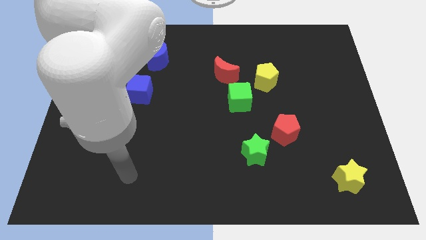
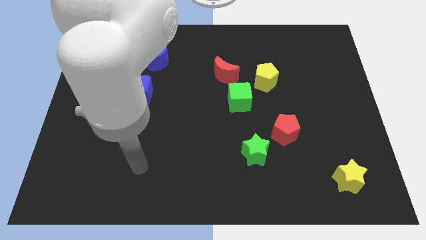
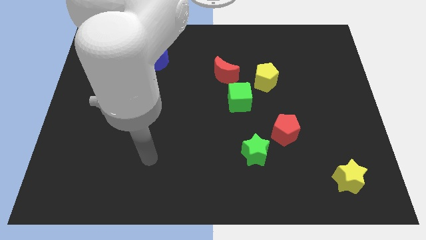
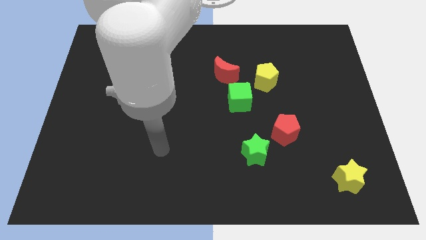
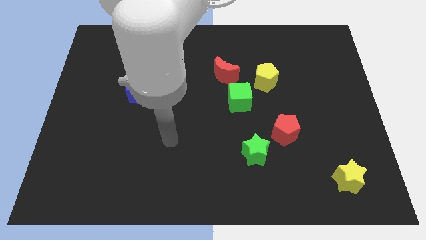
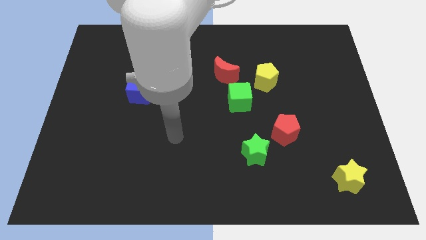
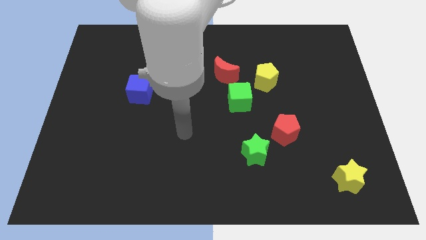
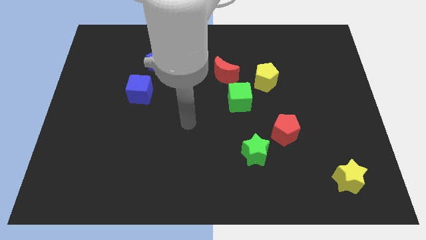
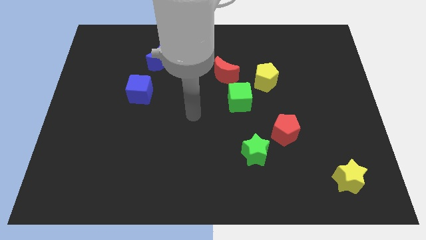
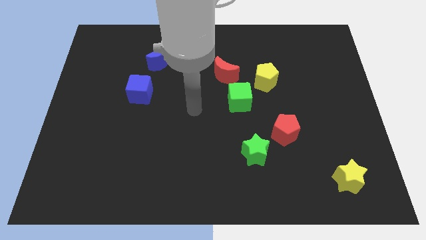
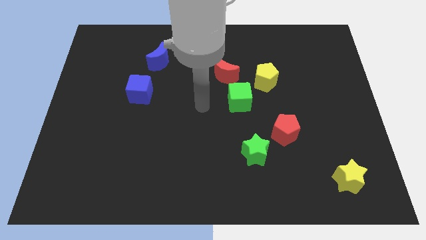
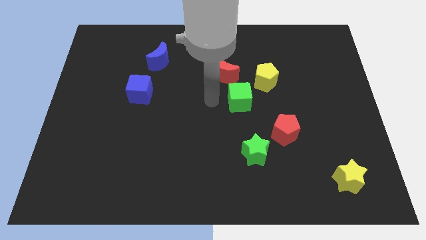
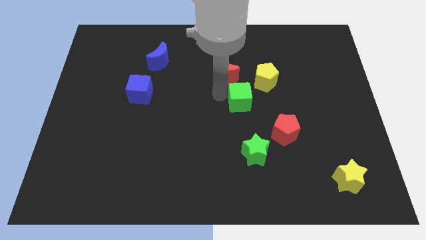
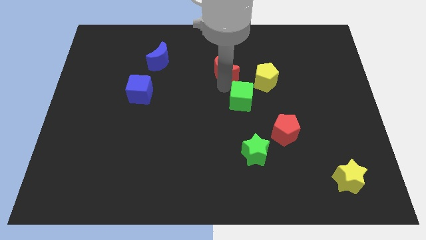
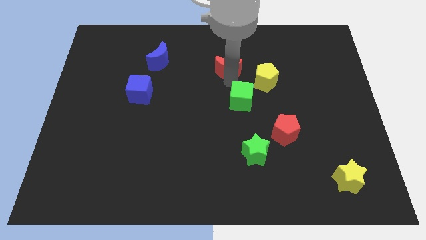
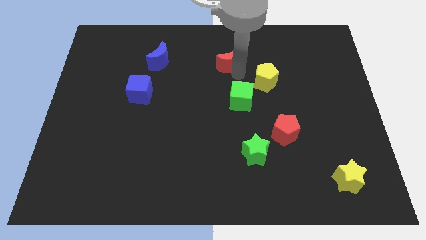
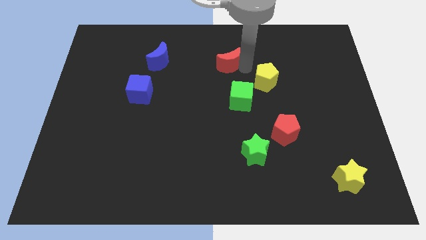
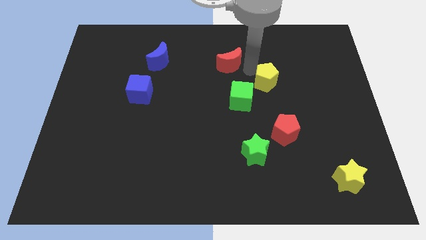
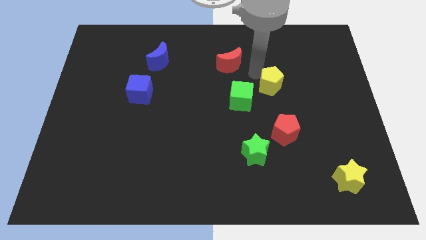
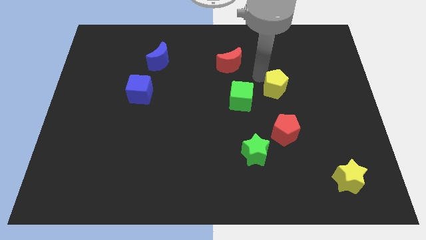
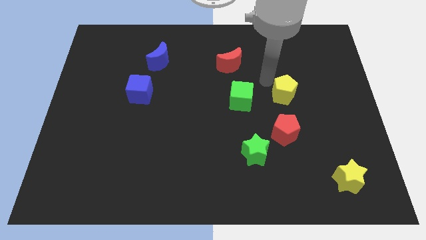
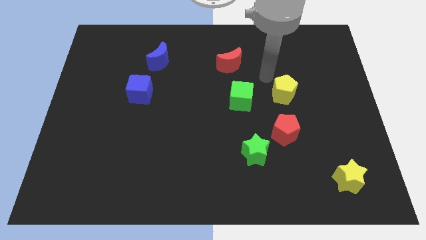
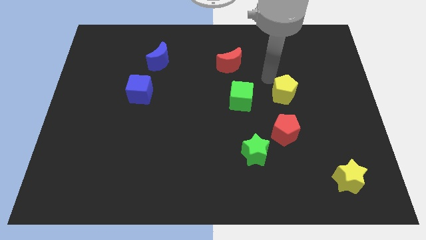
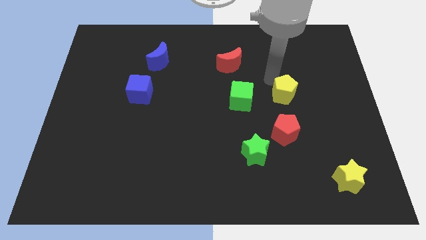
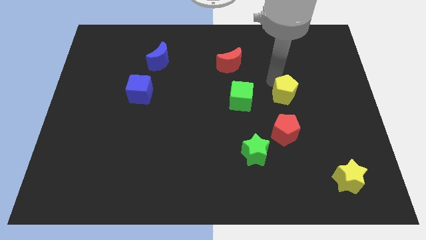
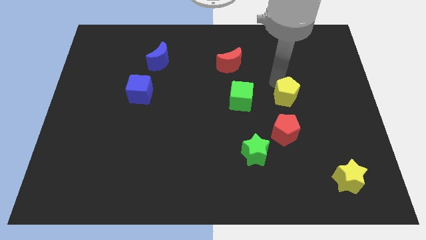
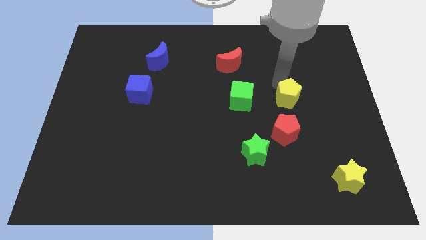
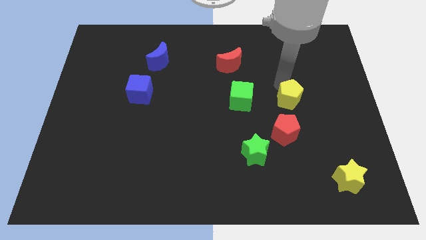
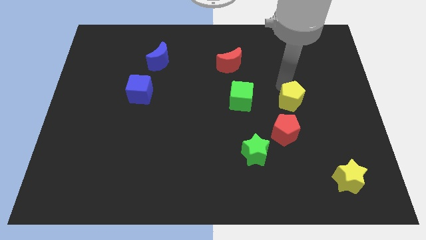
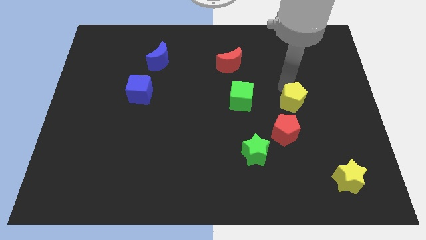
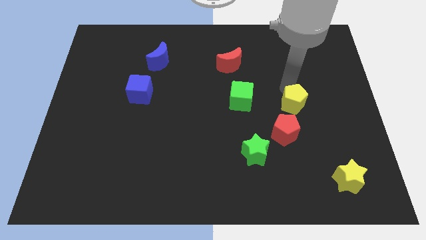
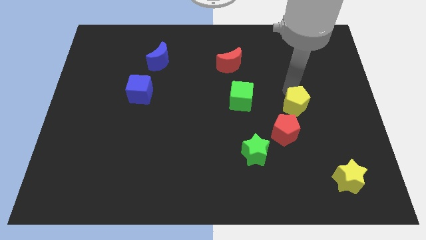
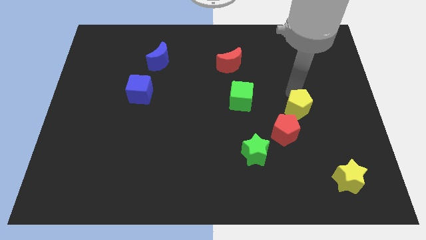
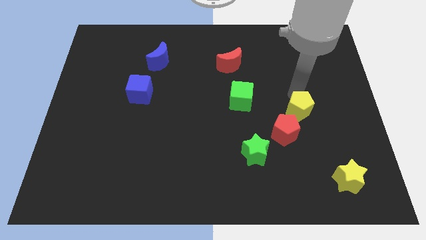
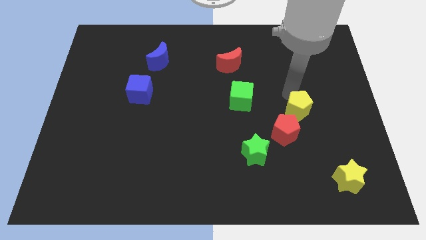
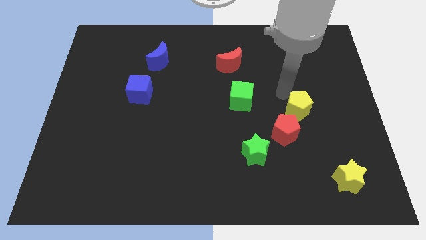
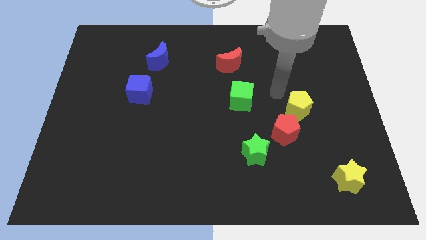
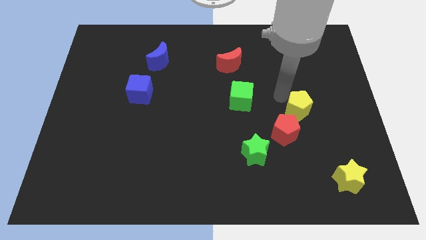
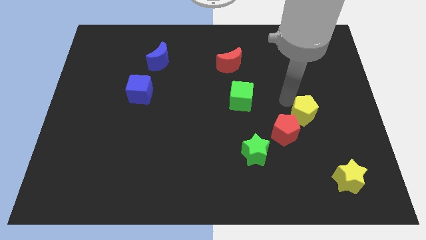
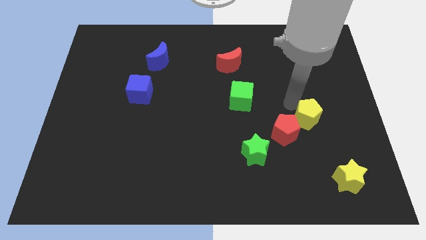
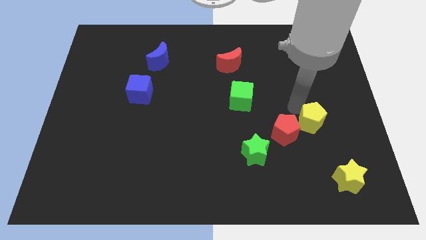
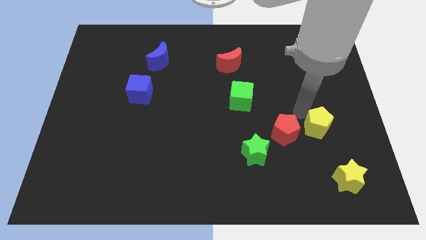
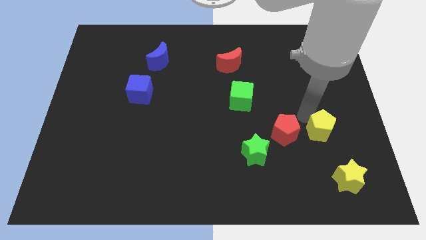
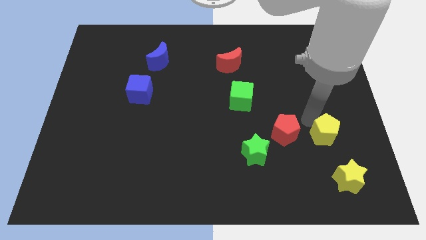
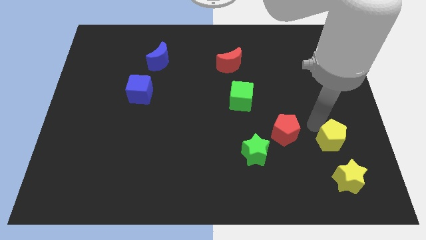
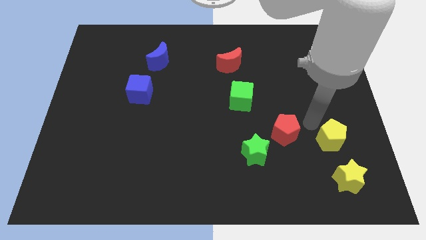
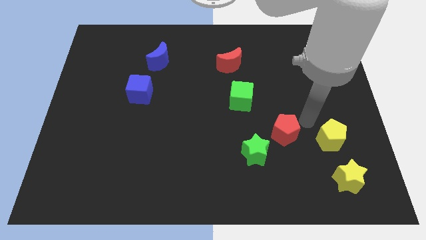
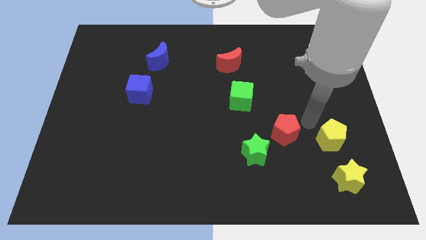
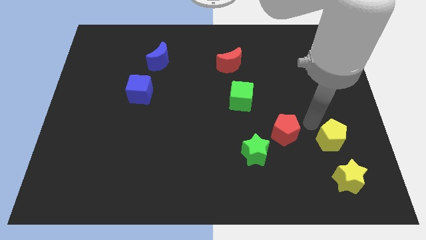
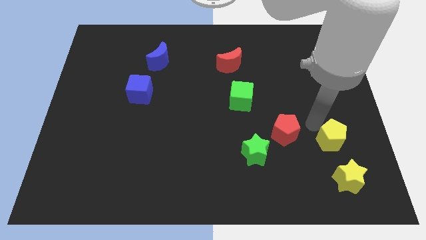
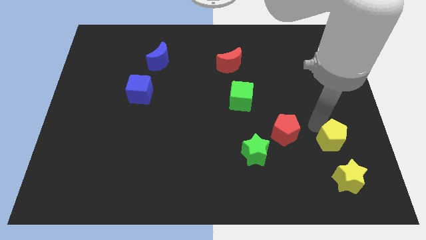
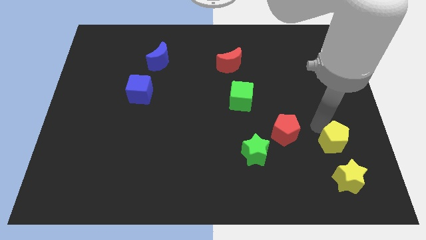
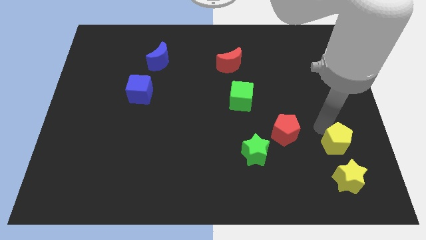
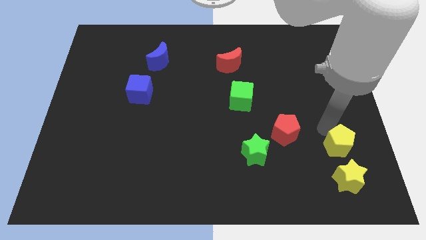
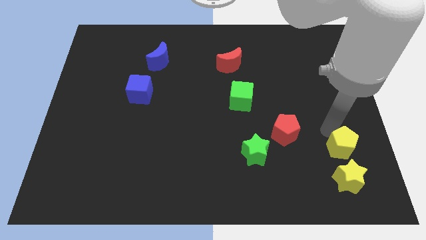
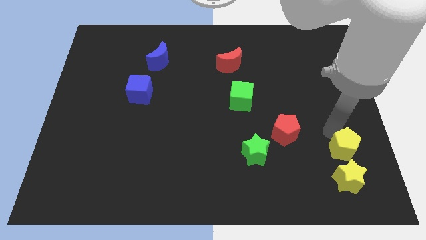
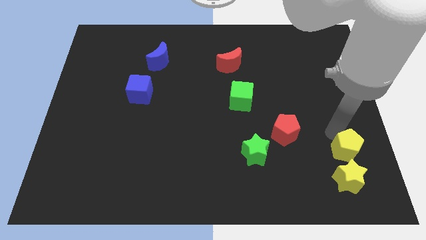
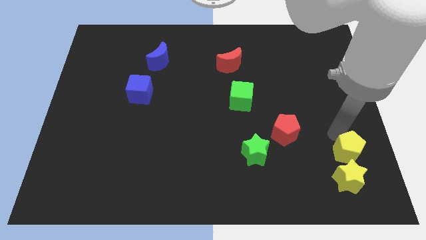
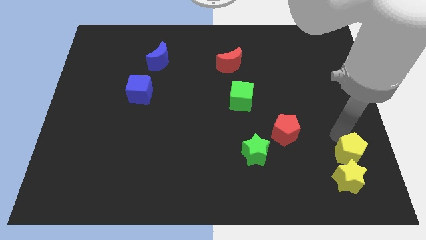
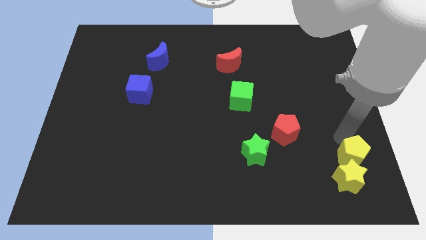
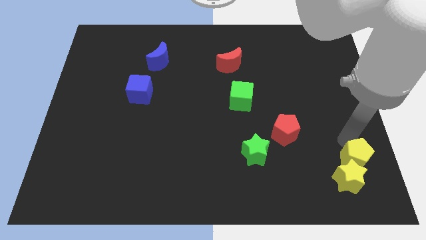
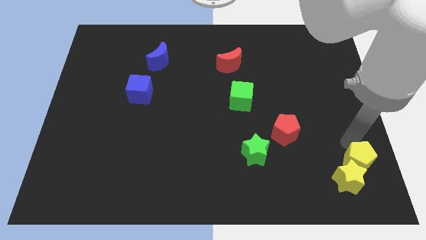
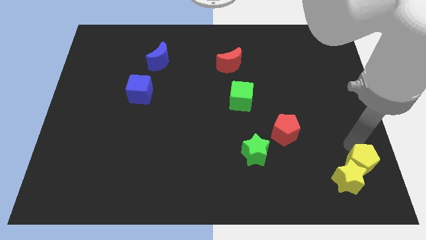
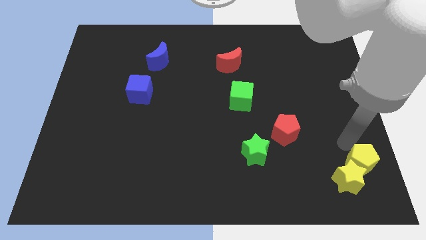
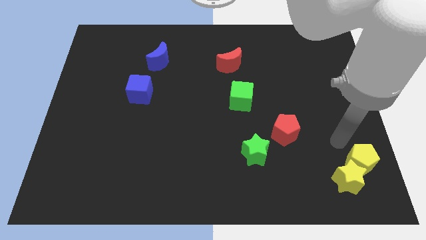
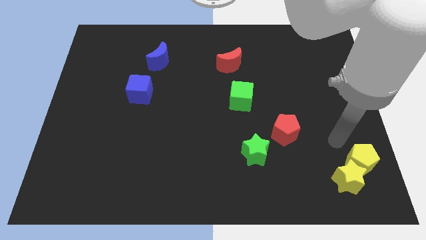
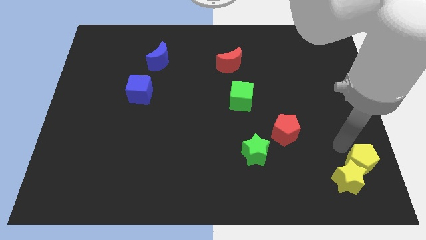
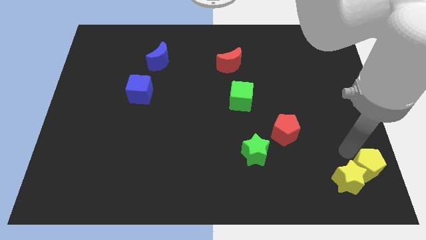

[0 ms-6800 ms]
push the yellow pentagon to the bottom right corner
